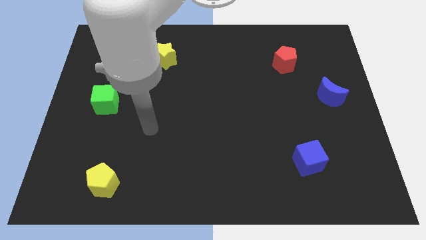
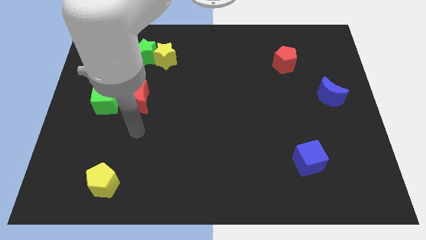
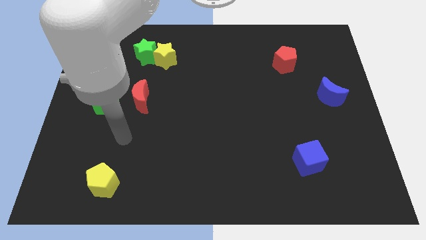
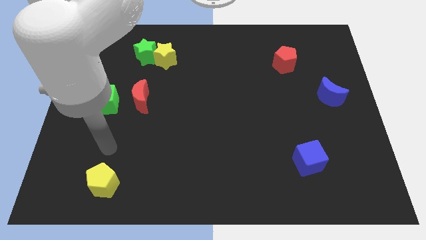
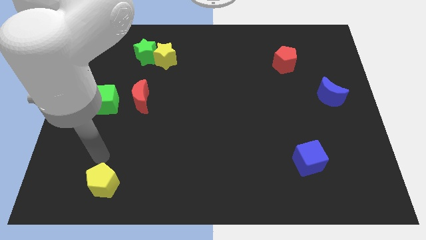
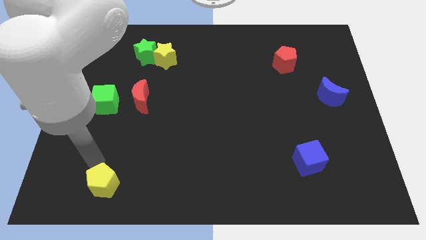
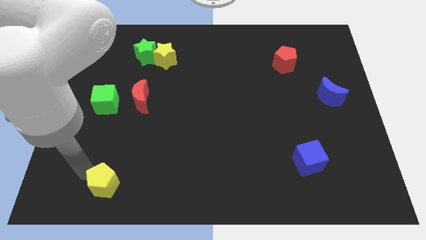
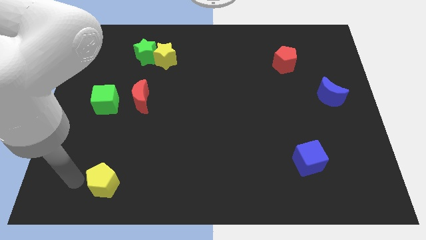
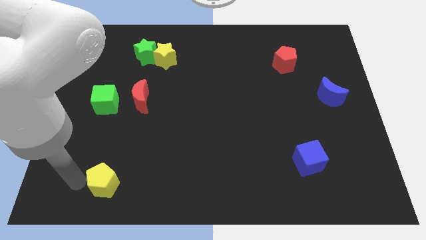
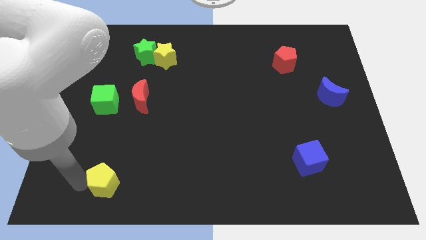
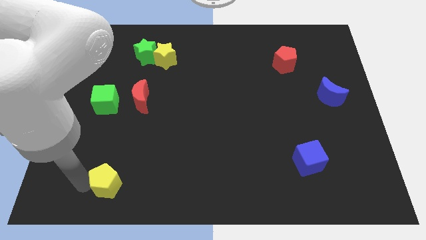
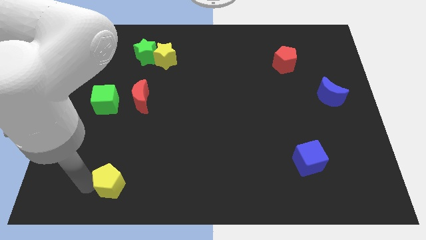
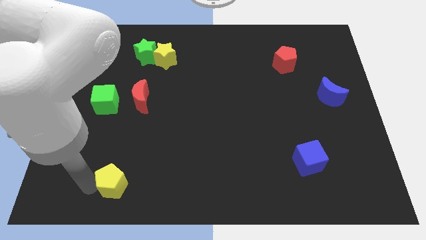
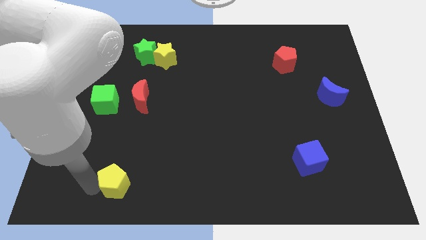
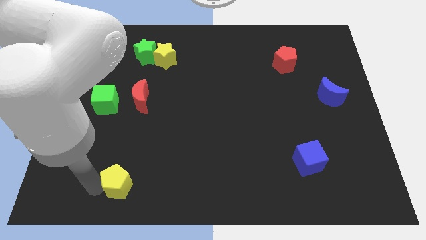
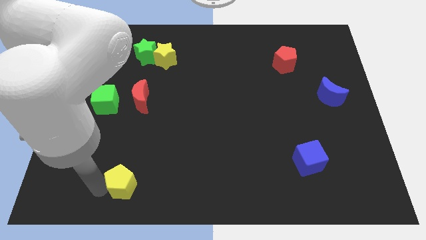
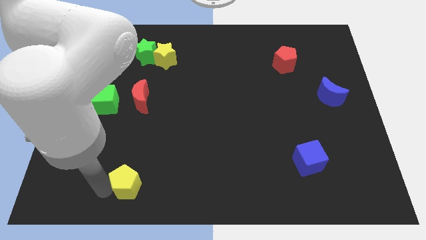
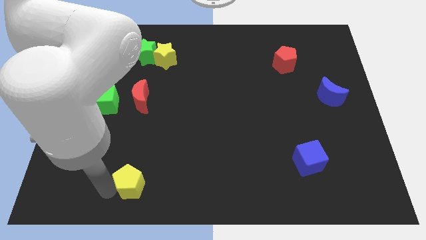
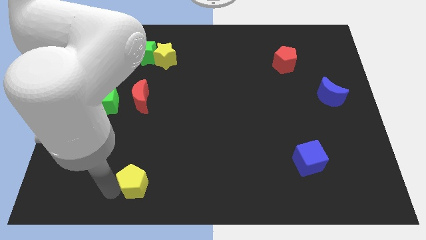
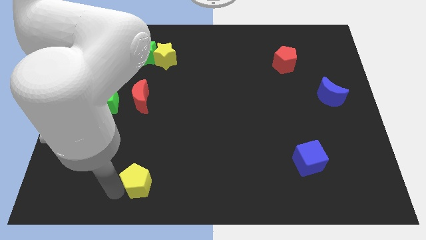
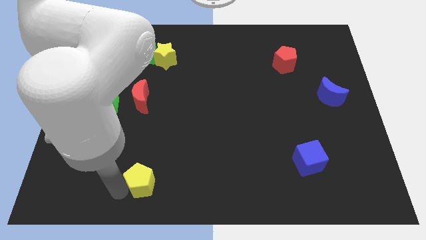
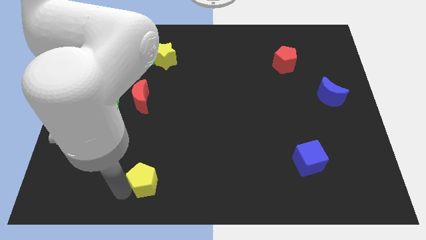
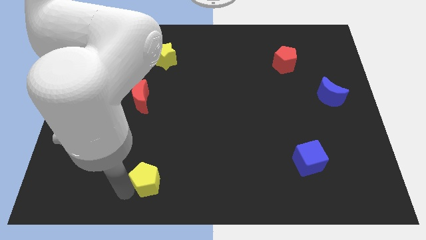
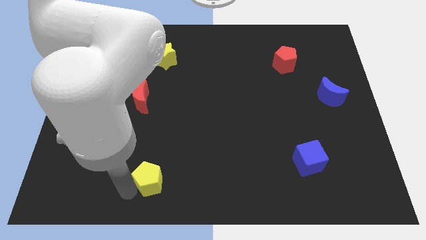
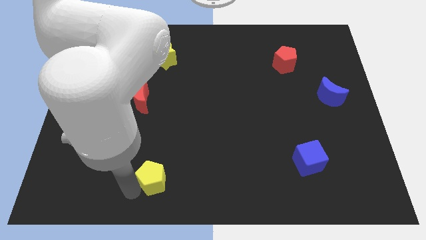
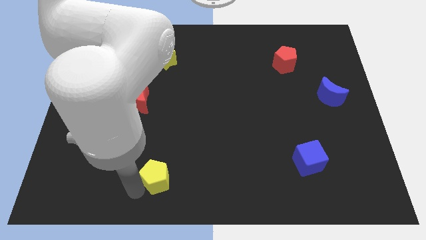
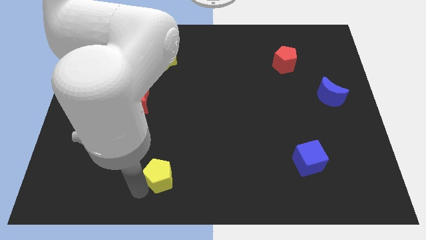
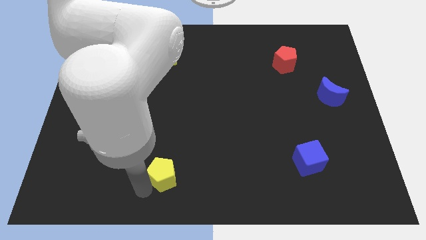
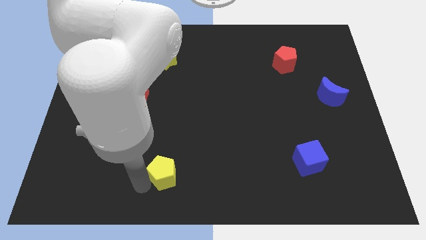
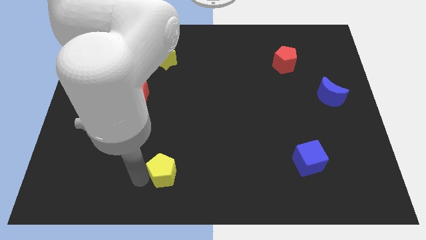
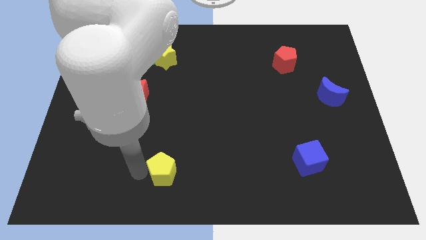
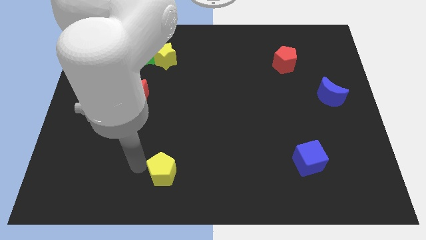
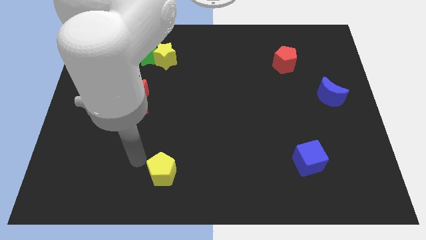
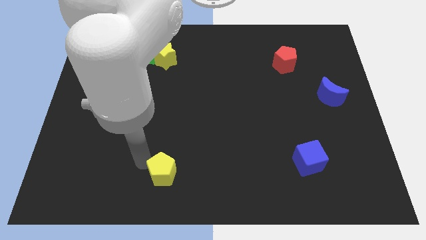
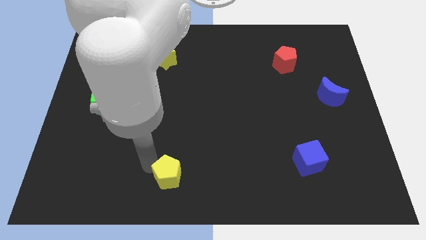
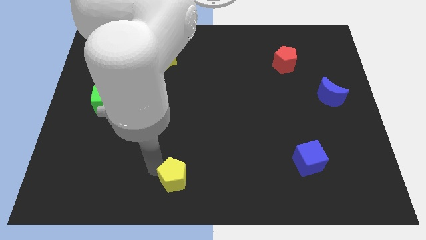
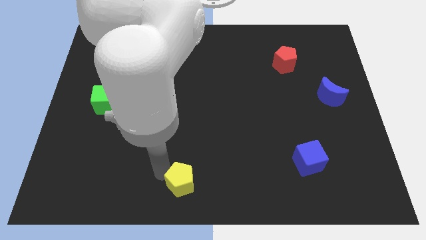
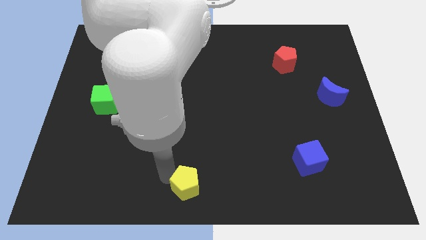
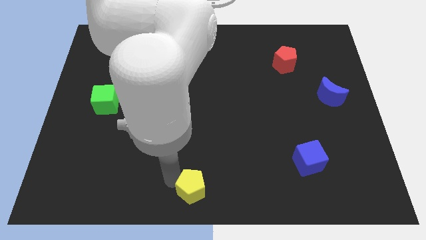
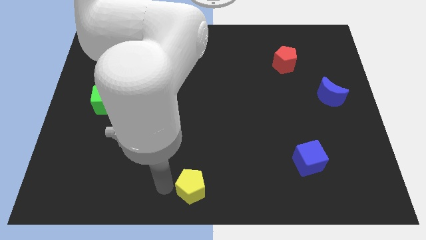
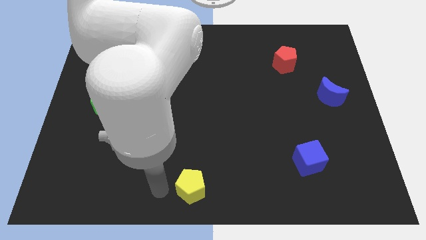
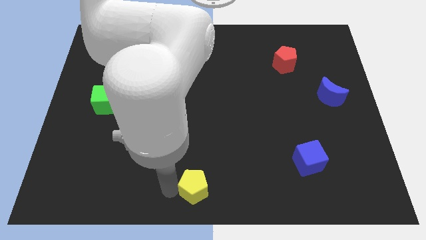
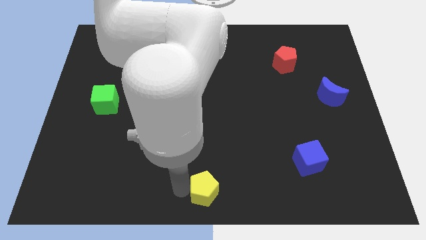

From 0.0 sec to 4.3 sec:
slide the yellow pentagon right

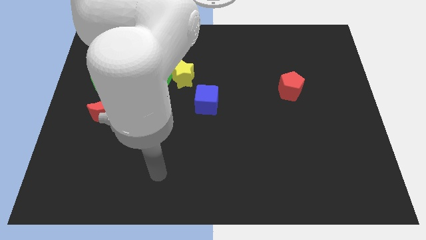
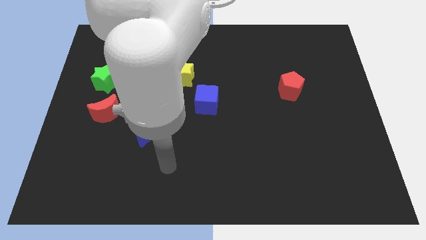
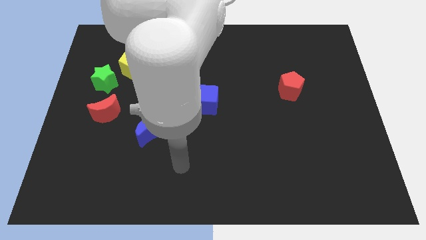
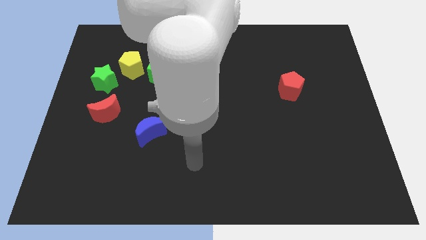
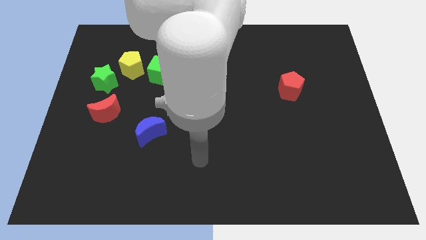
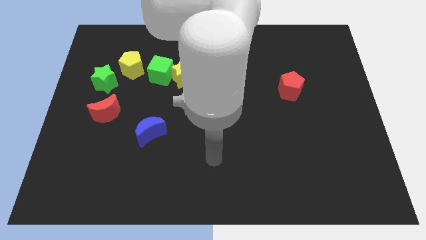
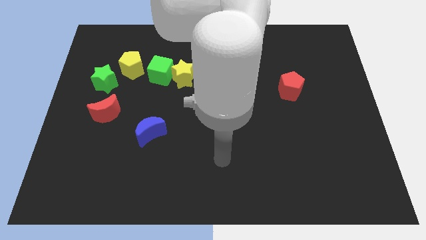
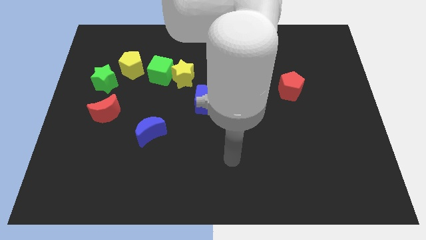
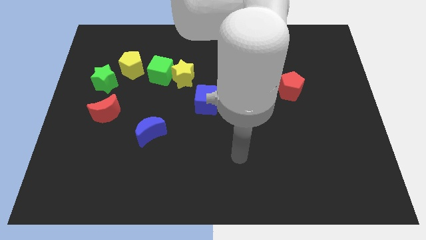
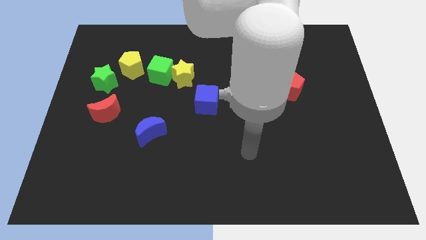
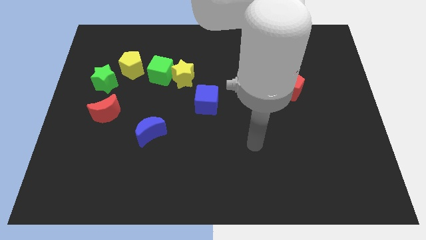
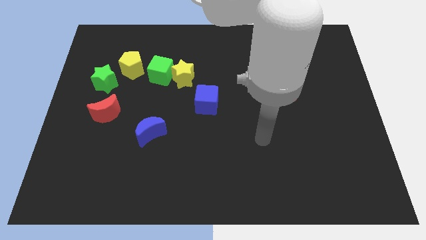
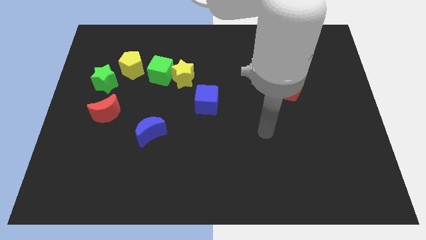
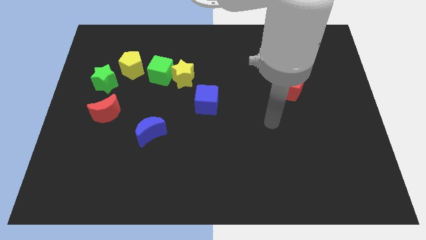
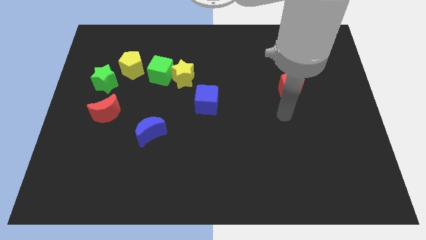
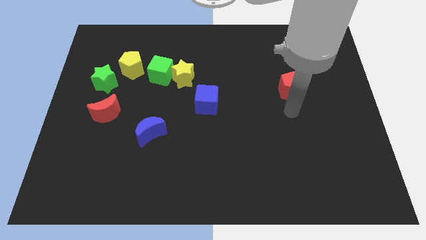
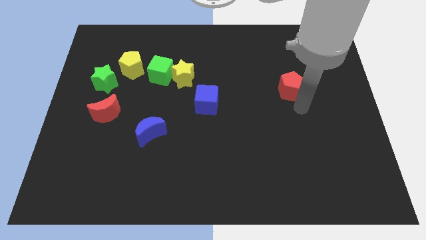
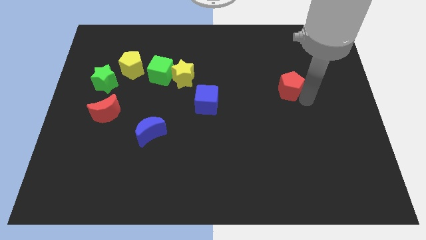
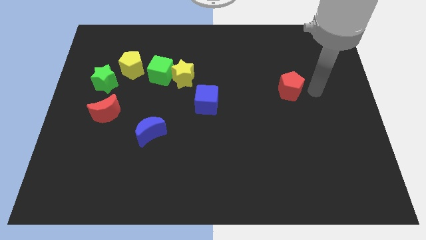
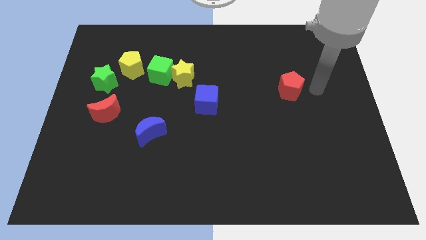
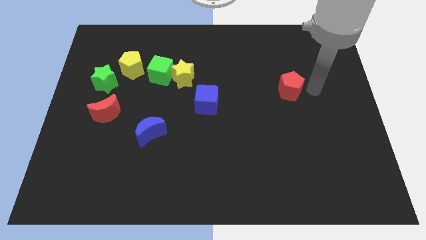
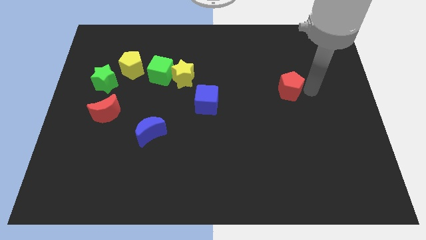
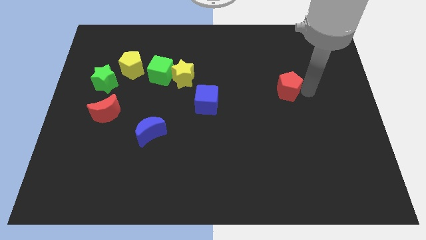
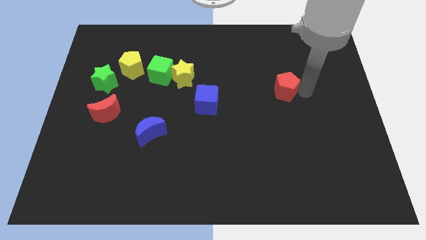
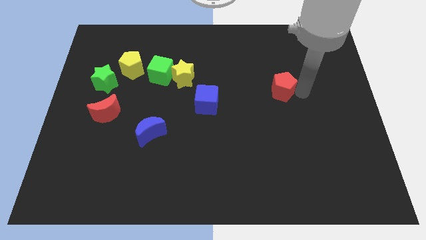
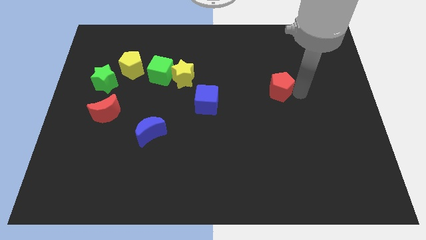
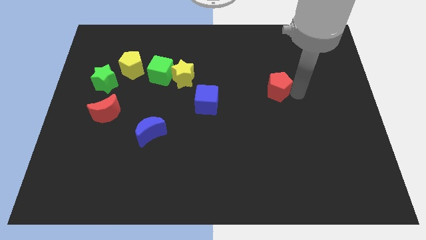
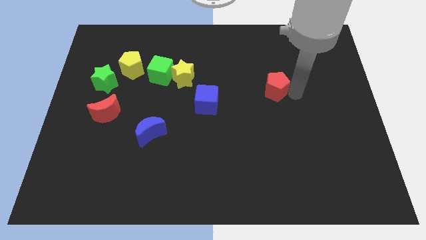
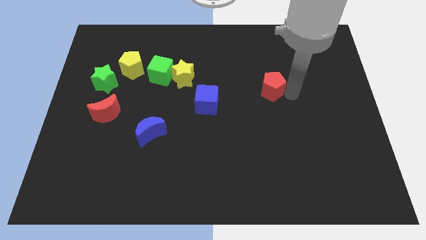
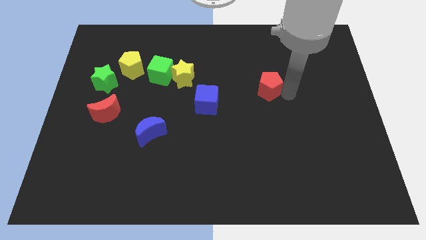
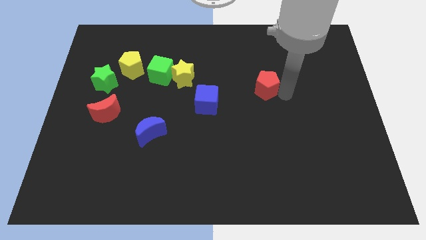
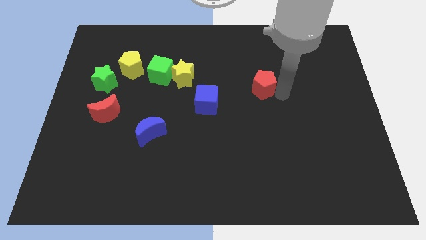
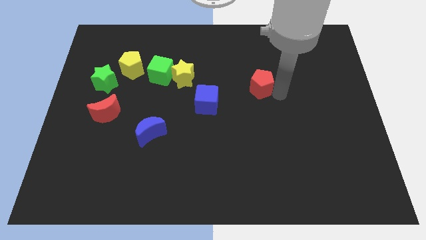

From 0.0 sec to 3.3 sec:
slightly move the red pentagon left

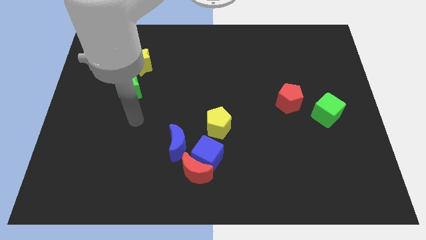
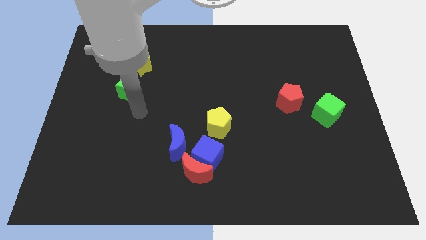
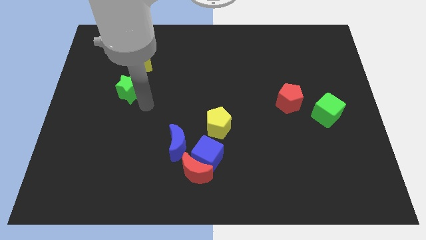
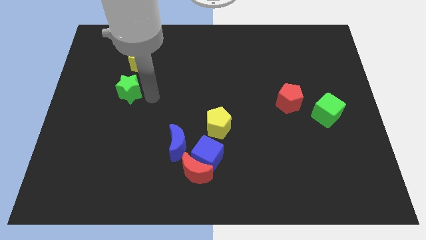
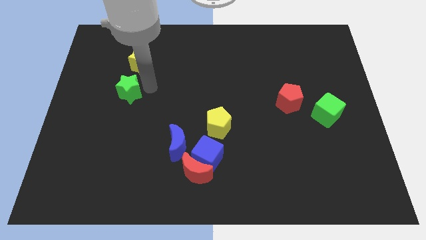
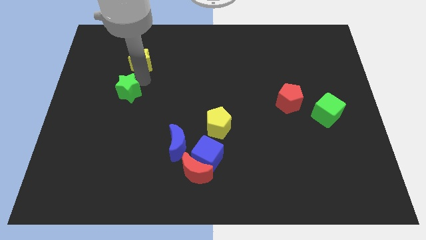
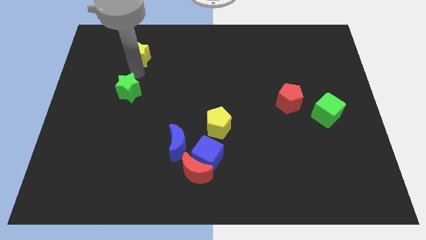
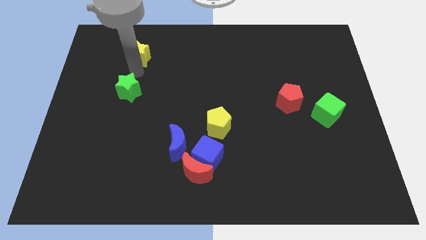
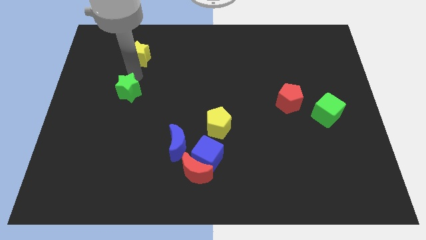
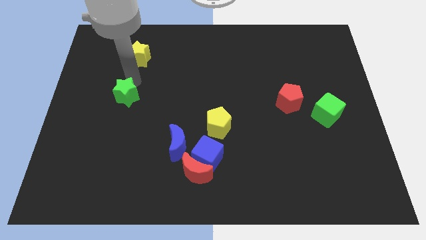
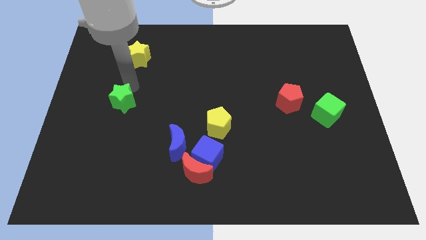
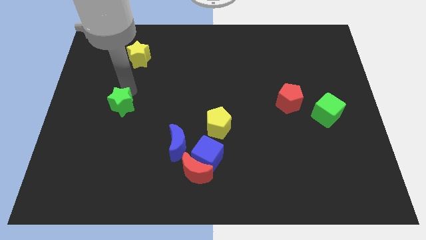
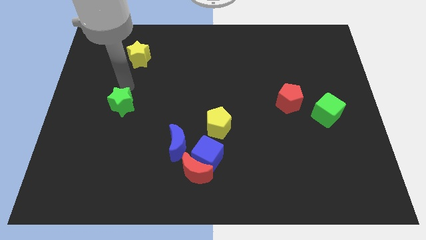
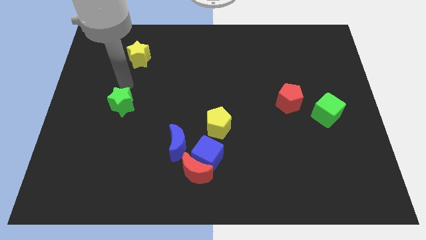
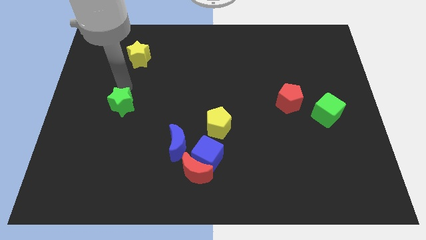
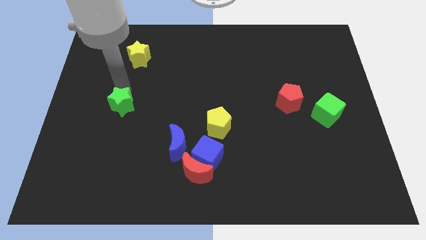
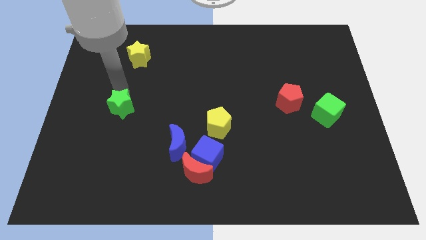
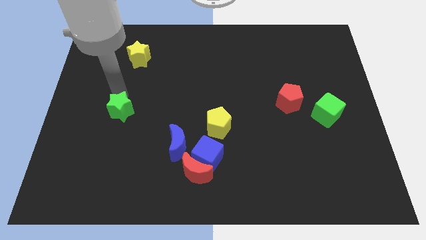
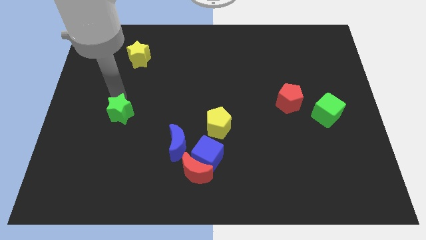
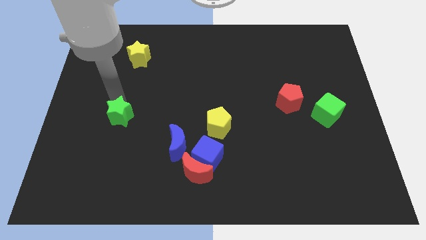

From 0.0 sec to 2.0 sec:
push the green star downwards slightly
